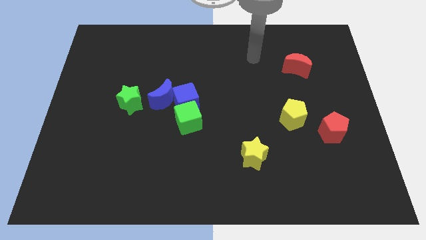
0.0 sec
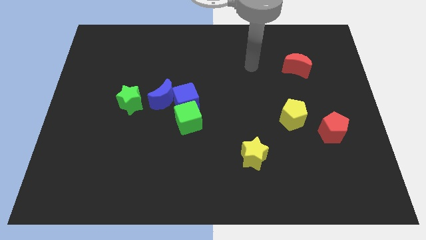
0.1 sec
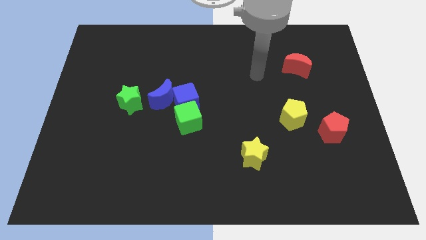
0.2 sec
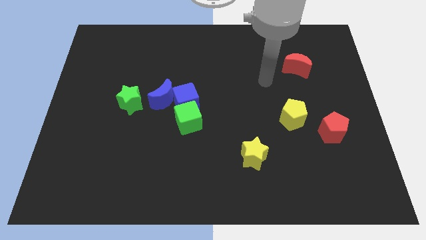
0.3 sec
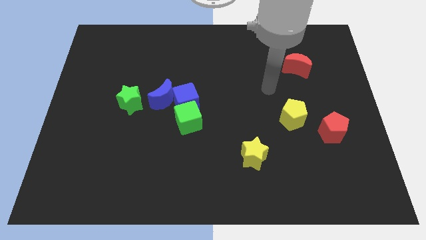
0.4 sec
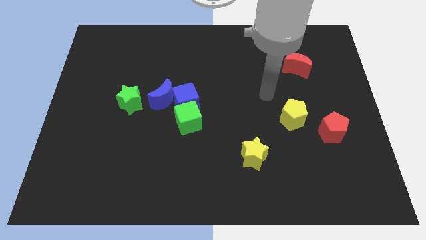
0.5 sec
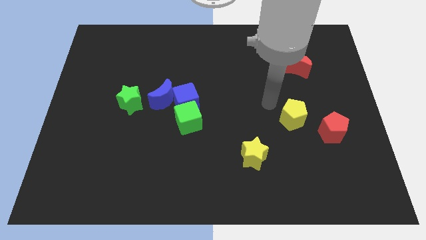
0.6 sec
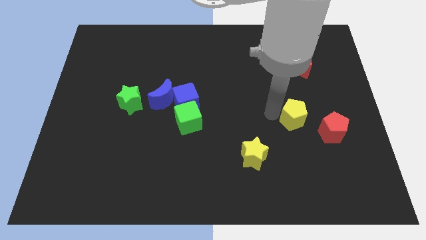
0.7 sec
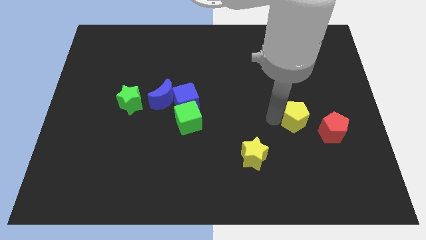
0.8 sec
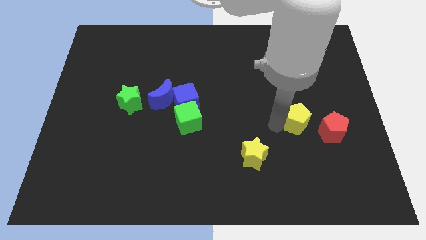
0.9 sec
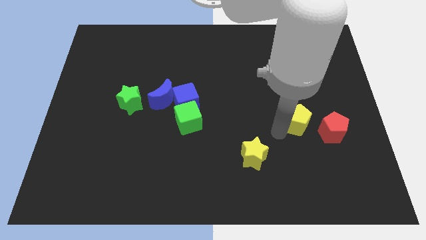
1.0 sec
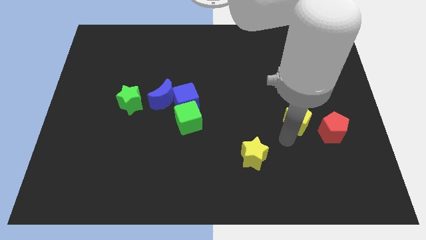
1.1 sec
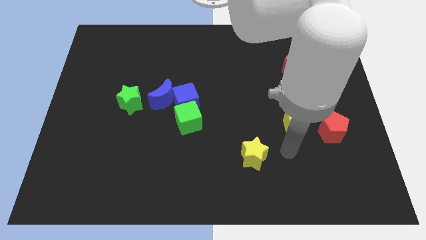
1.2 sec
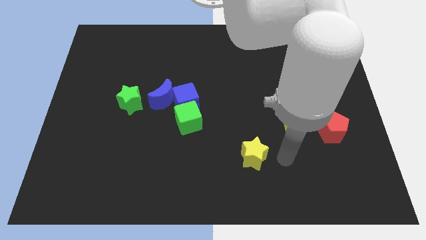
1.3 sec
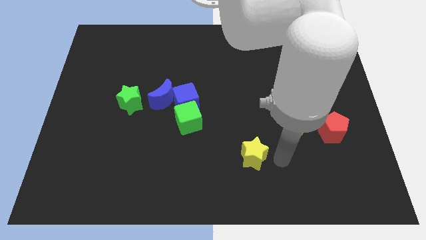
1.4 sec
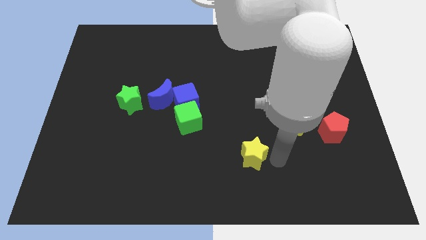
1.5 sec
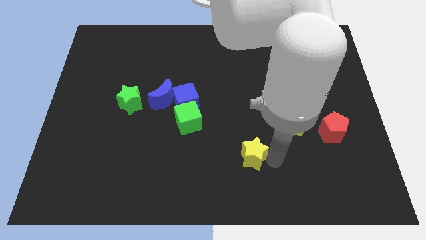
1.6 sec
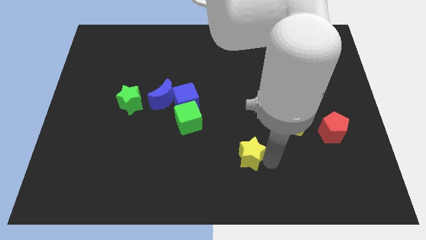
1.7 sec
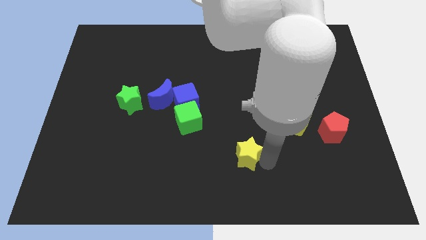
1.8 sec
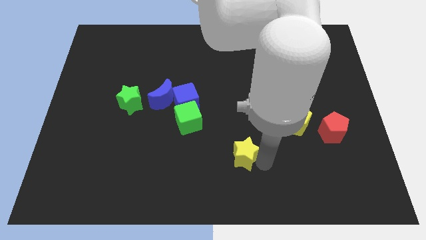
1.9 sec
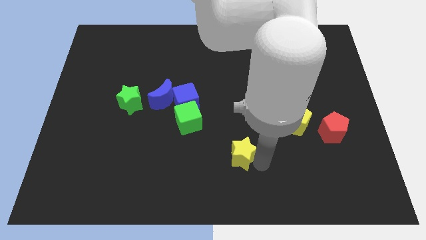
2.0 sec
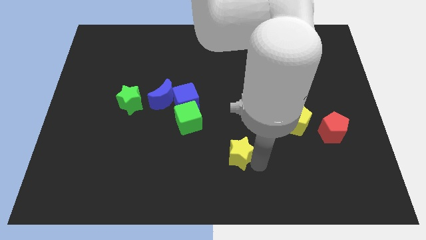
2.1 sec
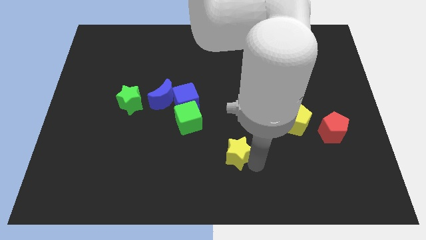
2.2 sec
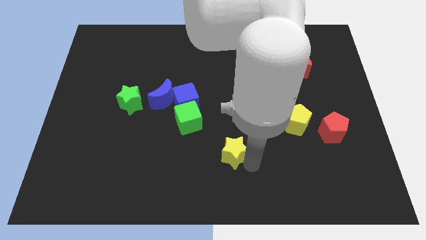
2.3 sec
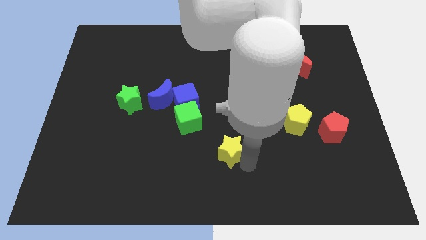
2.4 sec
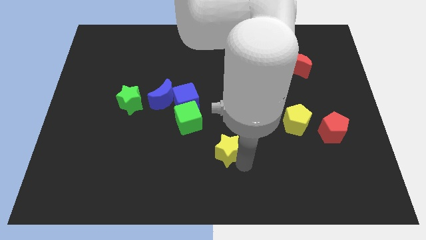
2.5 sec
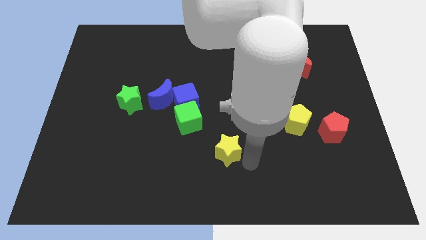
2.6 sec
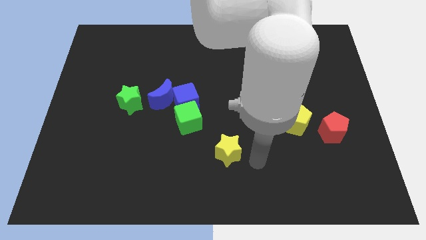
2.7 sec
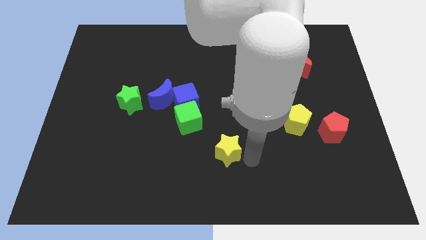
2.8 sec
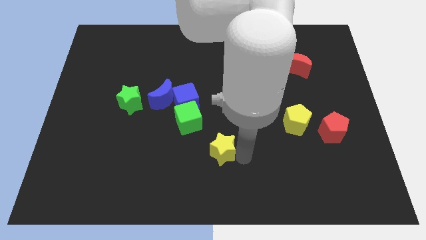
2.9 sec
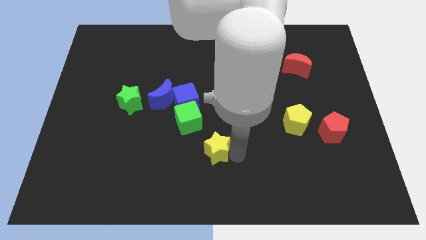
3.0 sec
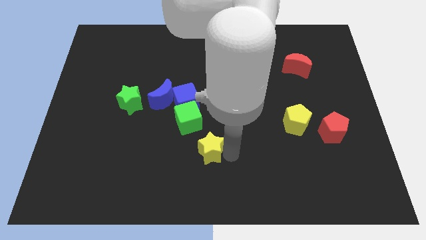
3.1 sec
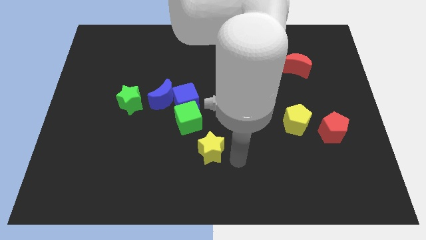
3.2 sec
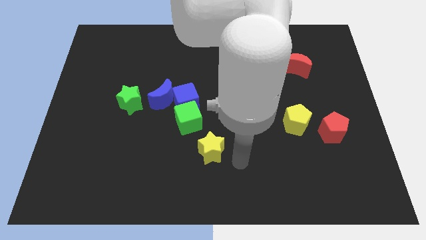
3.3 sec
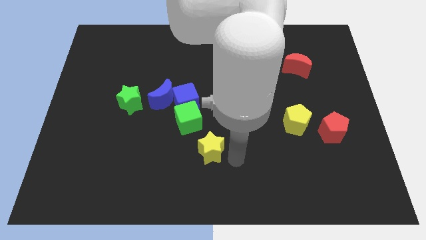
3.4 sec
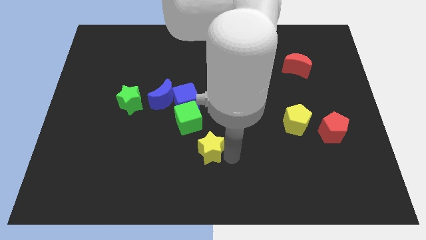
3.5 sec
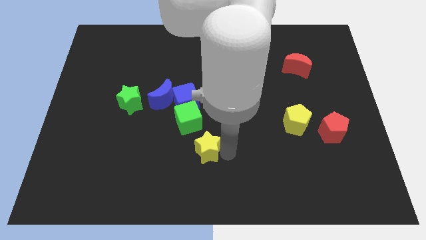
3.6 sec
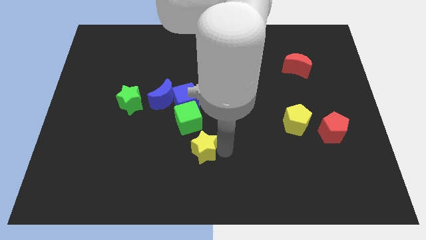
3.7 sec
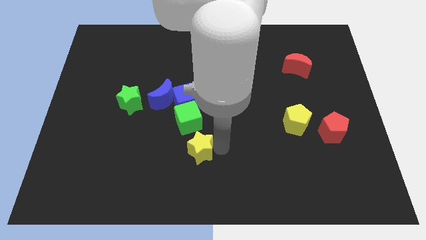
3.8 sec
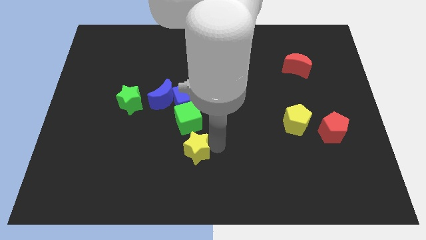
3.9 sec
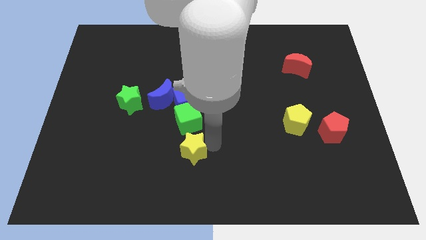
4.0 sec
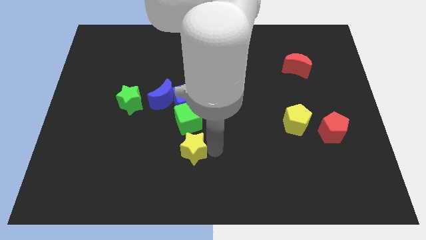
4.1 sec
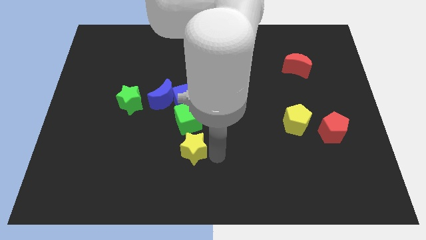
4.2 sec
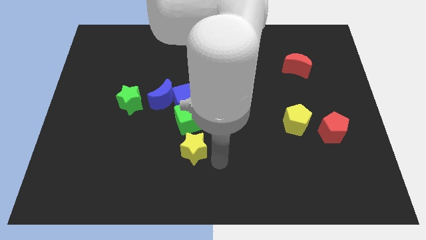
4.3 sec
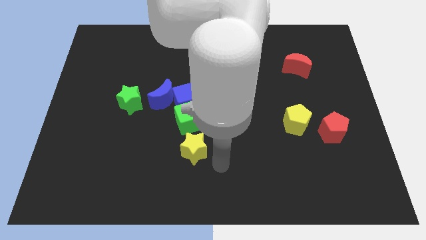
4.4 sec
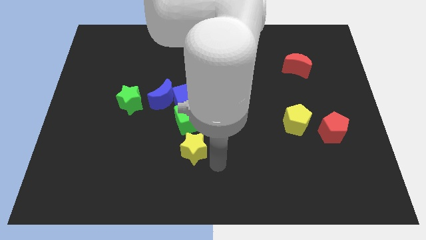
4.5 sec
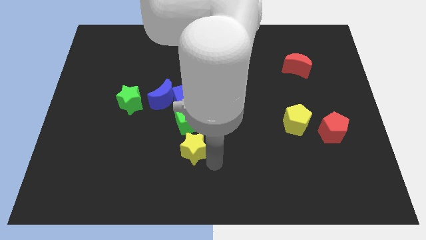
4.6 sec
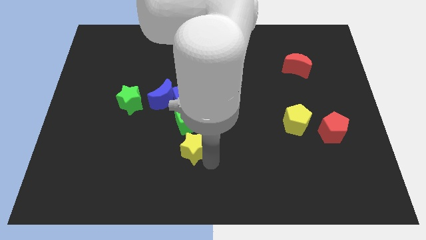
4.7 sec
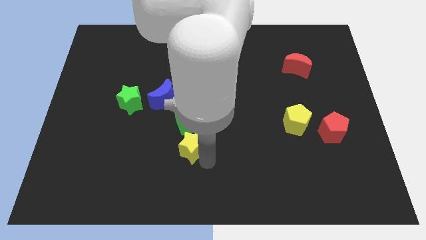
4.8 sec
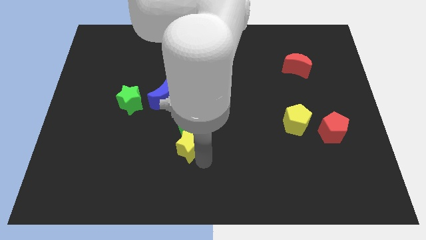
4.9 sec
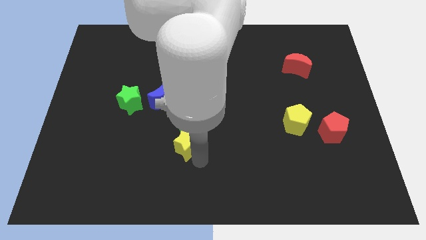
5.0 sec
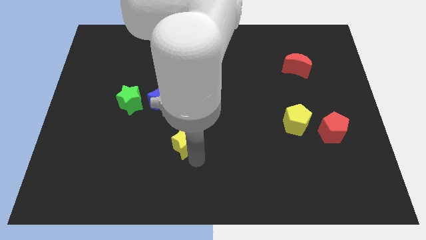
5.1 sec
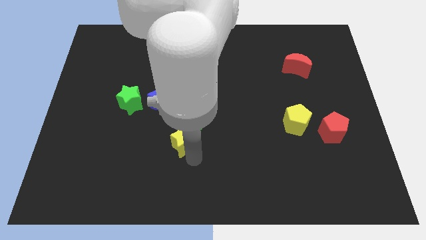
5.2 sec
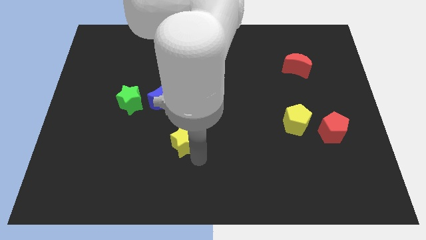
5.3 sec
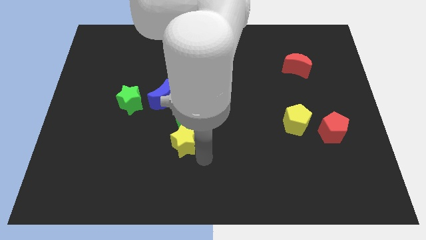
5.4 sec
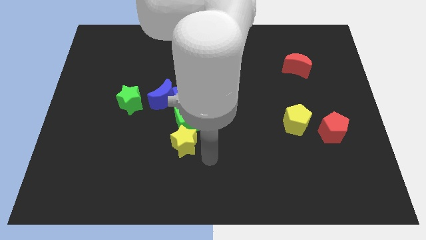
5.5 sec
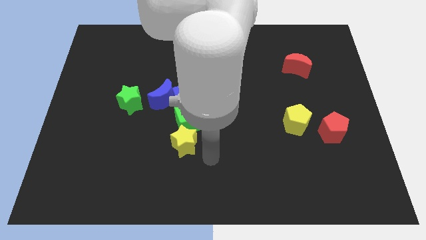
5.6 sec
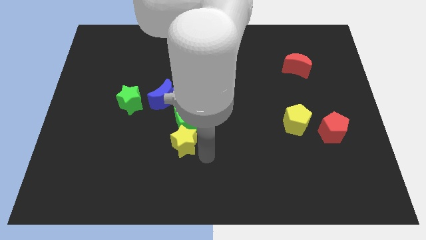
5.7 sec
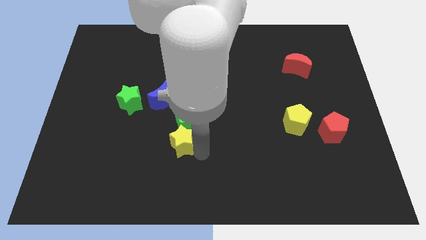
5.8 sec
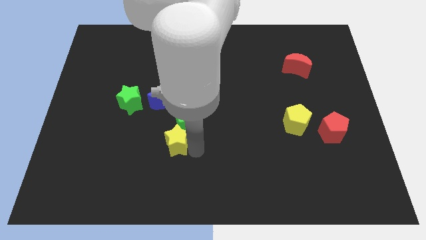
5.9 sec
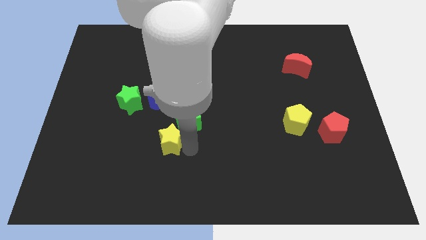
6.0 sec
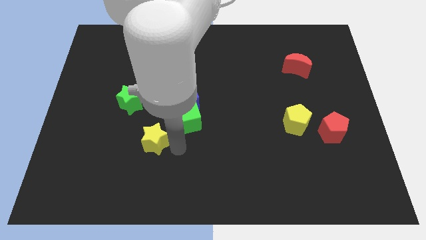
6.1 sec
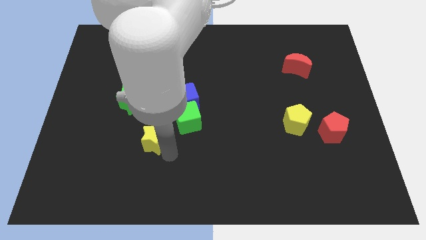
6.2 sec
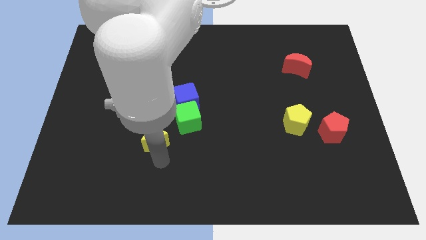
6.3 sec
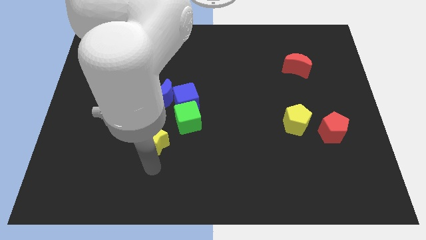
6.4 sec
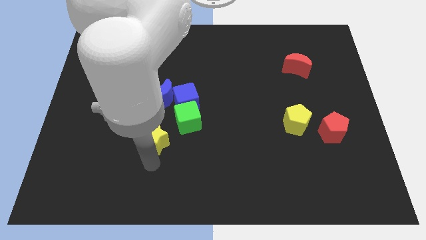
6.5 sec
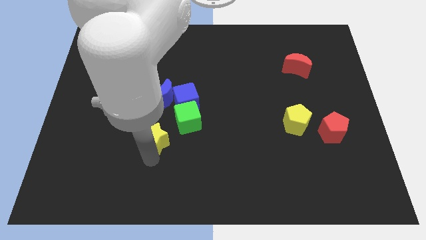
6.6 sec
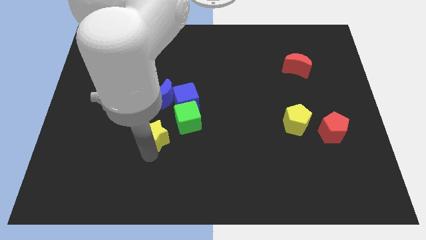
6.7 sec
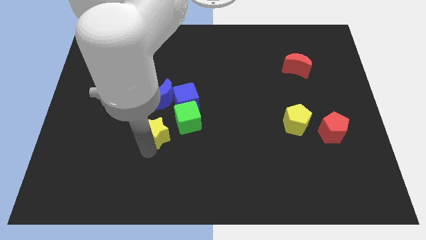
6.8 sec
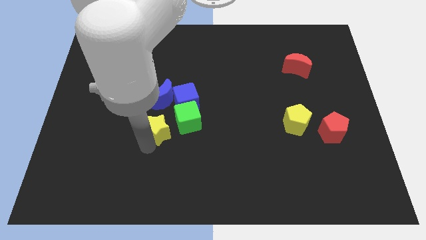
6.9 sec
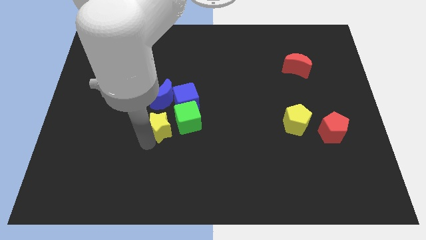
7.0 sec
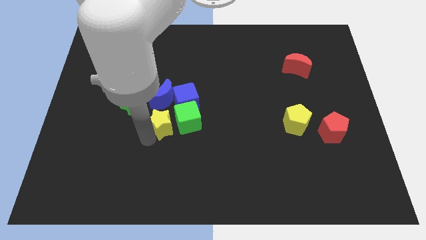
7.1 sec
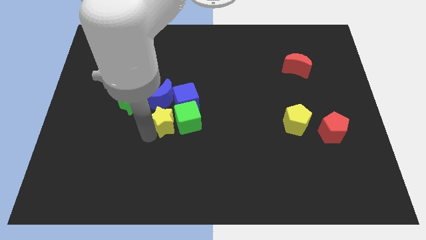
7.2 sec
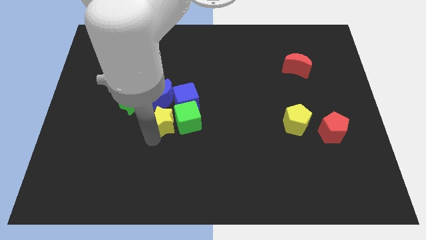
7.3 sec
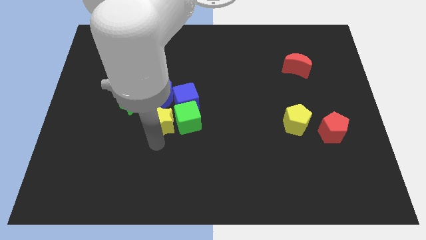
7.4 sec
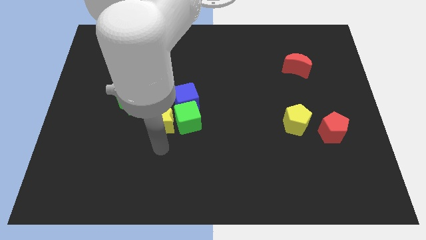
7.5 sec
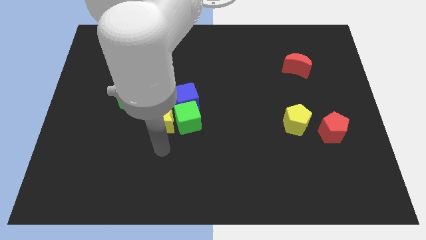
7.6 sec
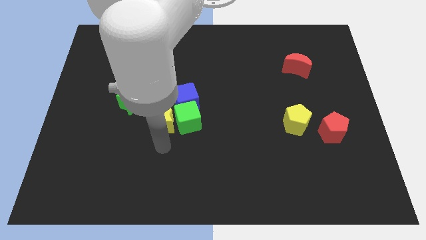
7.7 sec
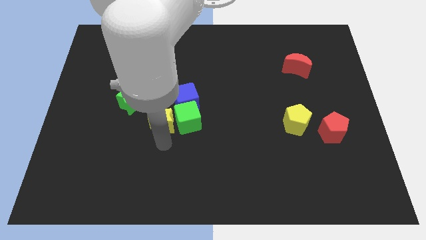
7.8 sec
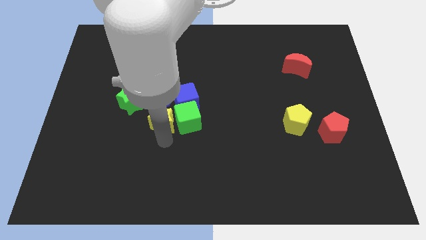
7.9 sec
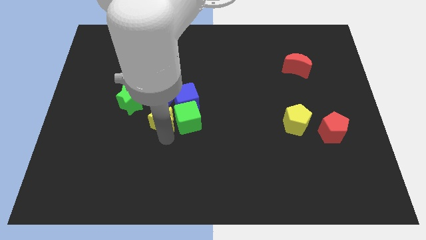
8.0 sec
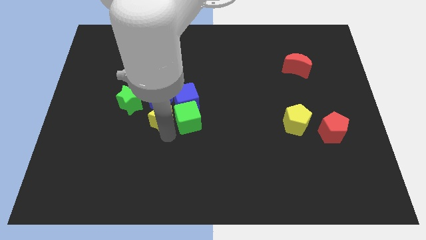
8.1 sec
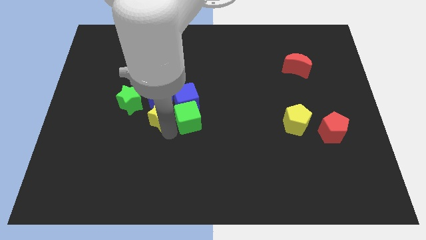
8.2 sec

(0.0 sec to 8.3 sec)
move the yellow star close to the blue moon
